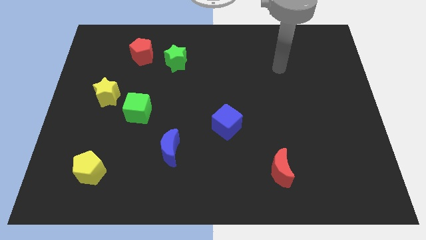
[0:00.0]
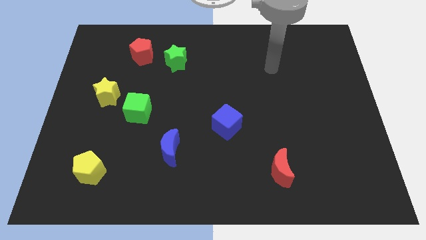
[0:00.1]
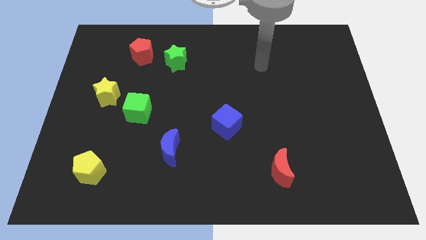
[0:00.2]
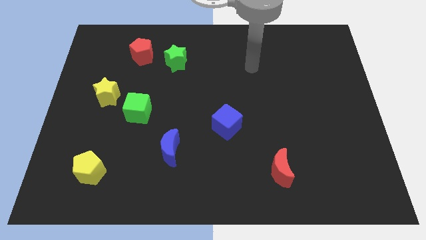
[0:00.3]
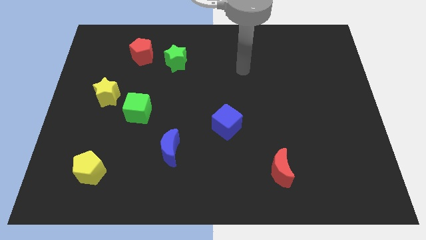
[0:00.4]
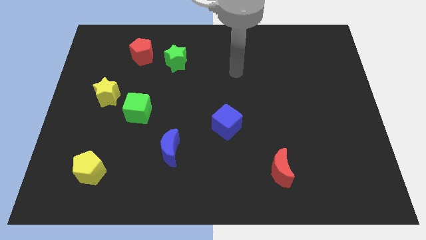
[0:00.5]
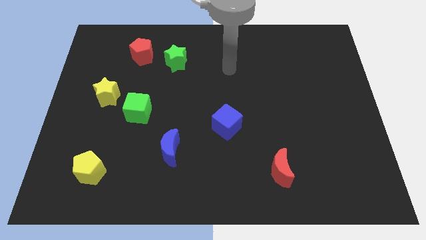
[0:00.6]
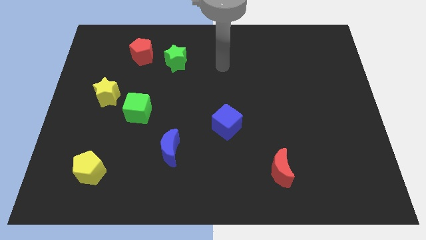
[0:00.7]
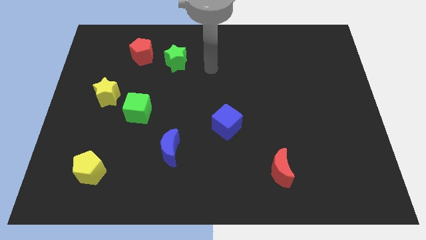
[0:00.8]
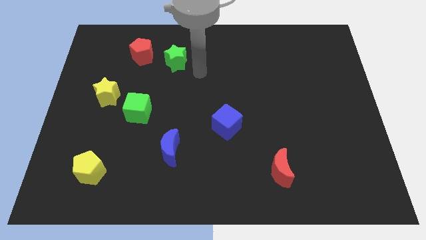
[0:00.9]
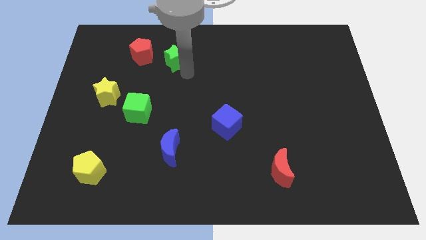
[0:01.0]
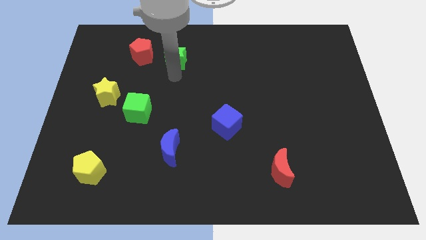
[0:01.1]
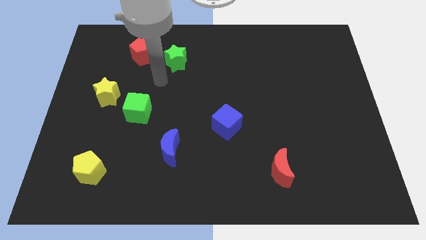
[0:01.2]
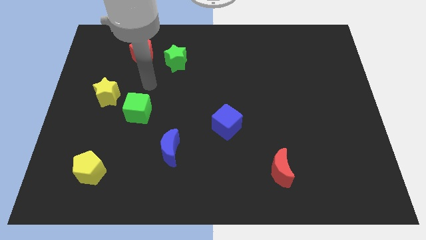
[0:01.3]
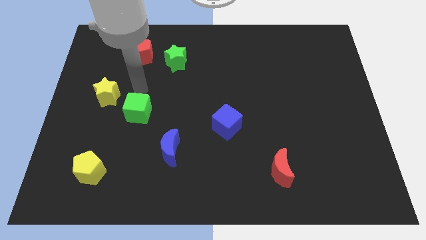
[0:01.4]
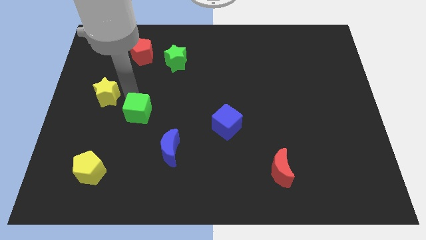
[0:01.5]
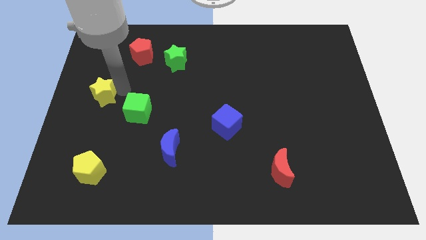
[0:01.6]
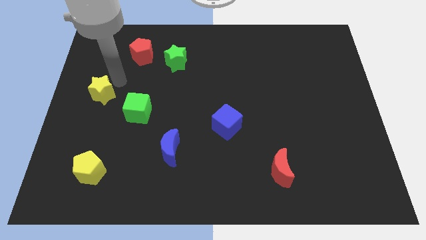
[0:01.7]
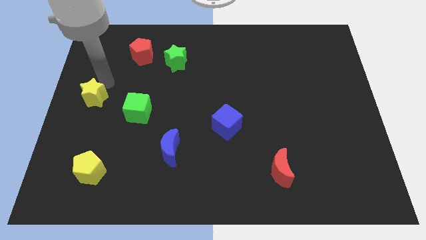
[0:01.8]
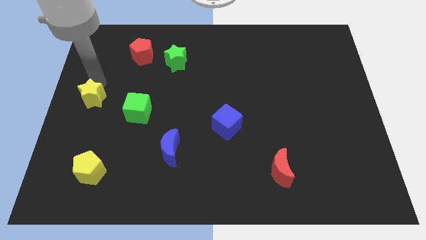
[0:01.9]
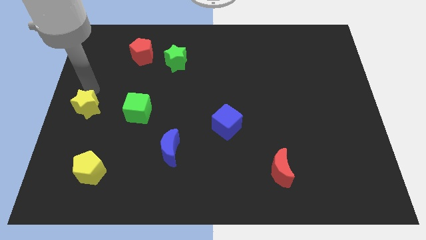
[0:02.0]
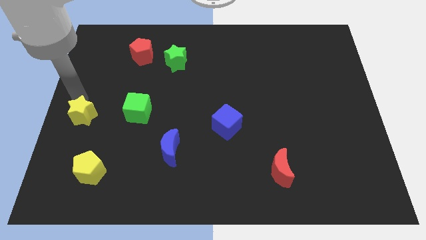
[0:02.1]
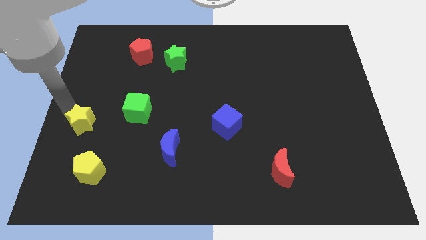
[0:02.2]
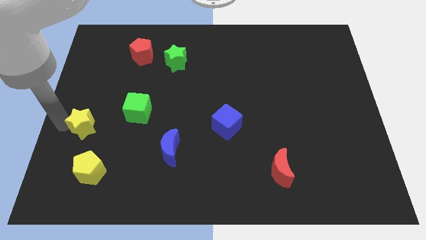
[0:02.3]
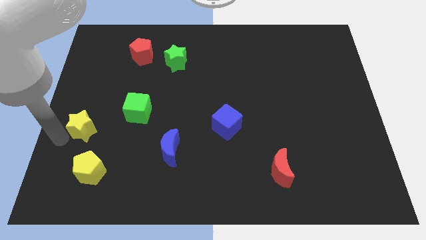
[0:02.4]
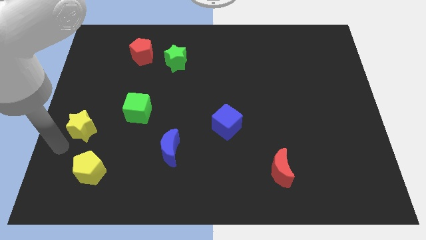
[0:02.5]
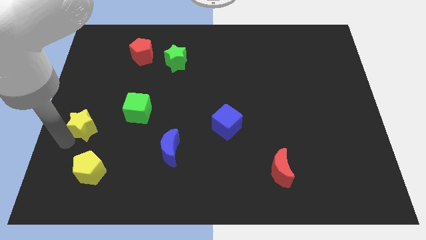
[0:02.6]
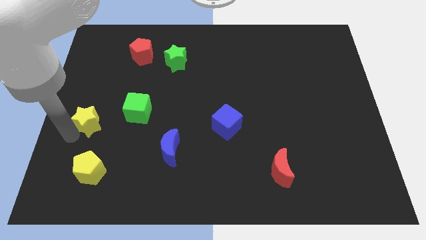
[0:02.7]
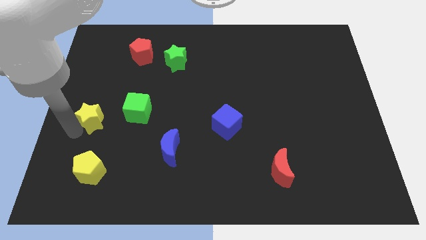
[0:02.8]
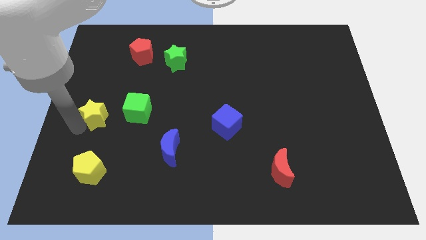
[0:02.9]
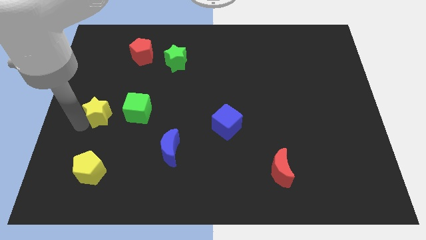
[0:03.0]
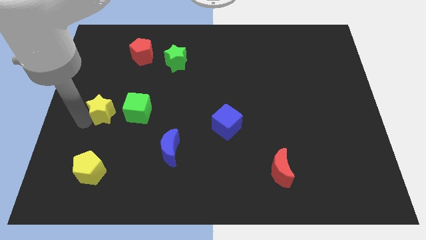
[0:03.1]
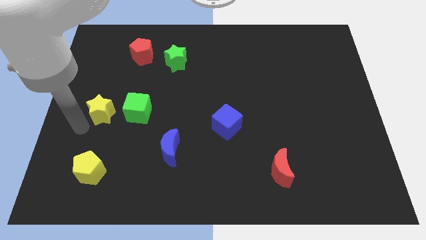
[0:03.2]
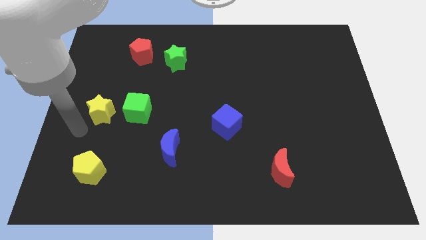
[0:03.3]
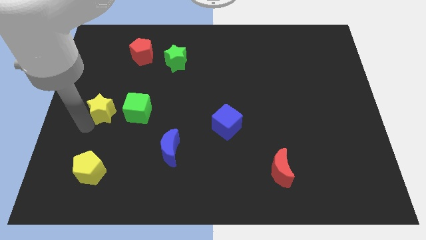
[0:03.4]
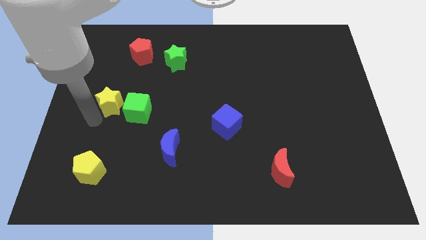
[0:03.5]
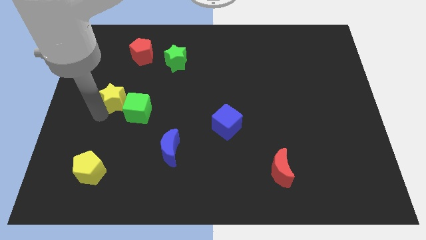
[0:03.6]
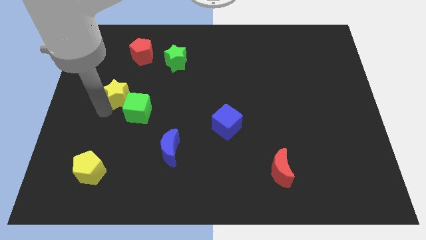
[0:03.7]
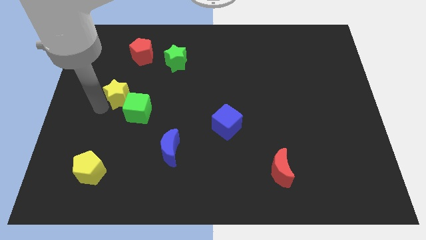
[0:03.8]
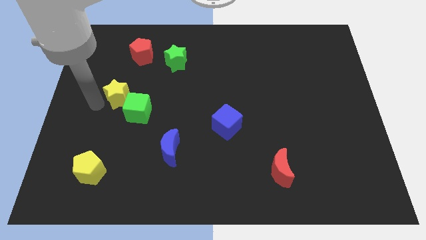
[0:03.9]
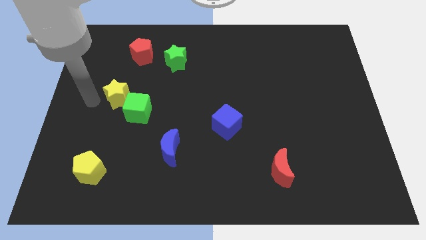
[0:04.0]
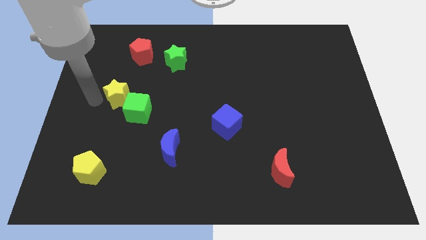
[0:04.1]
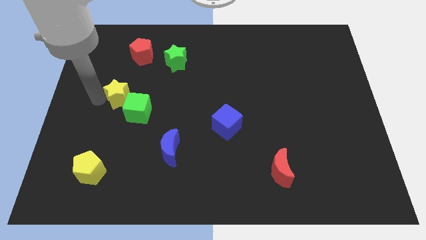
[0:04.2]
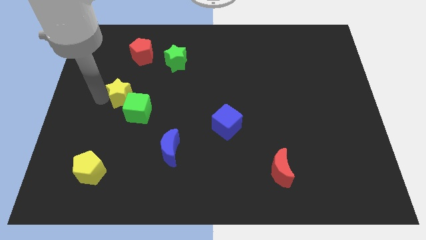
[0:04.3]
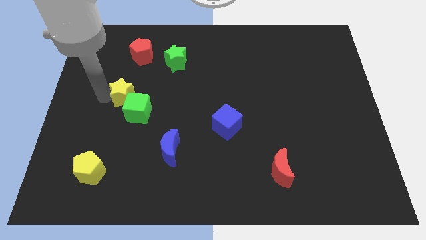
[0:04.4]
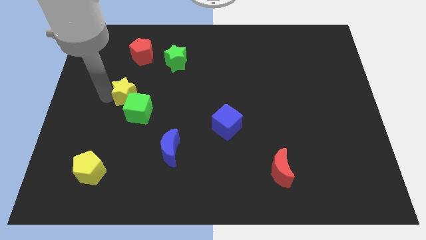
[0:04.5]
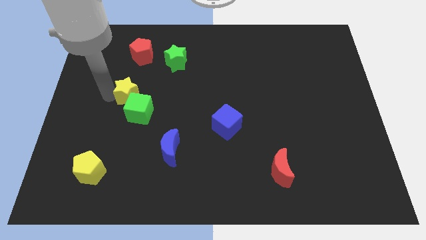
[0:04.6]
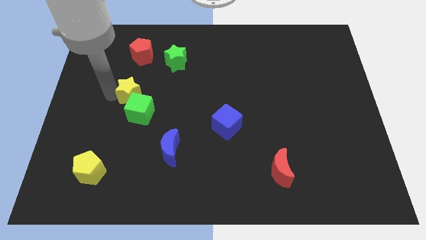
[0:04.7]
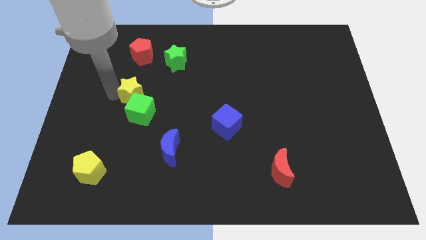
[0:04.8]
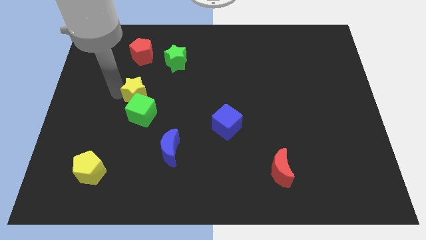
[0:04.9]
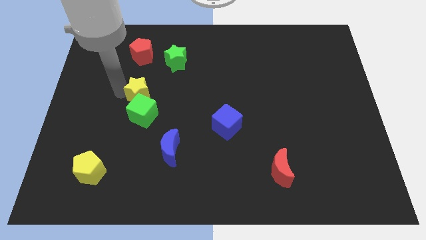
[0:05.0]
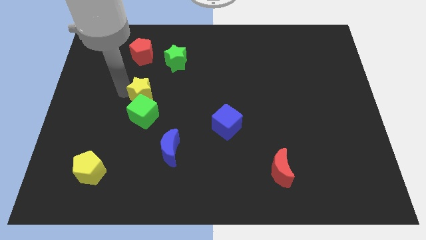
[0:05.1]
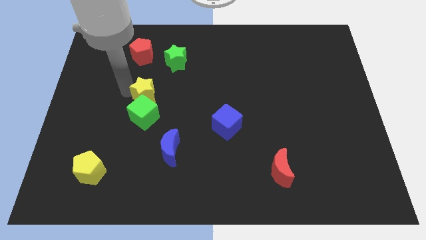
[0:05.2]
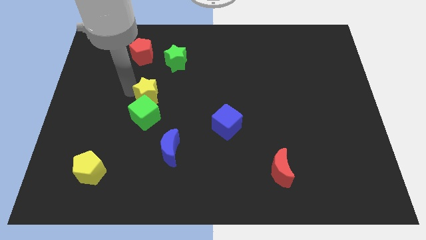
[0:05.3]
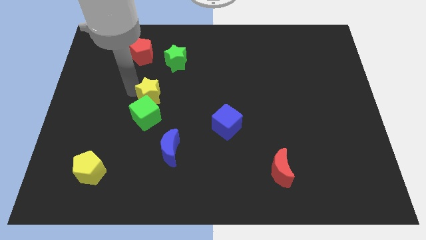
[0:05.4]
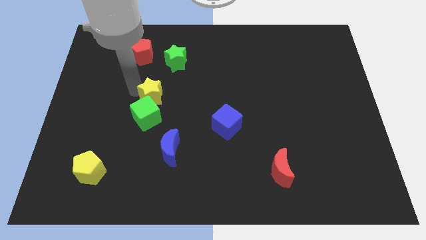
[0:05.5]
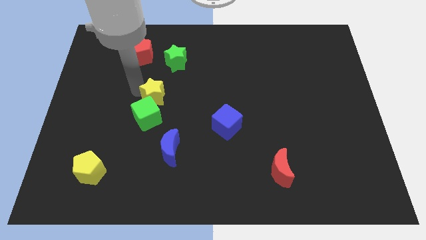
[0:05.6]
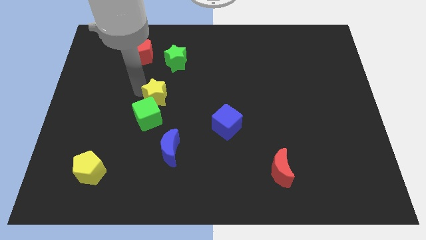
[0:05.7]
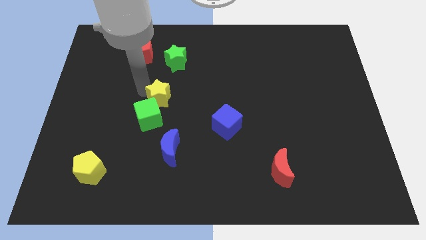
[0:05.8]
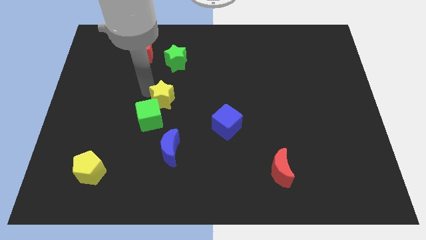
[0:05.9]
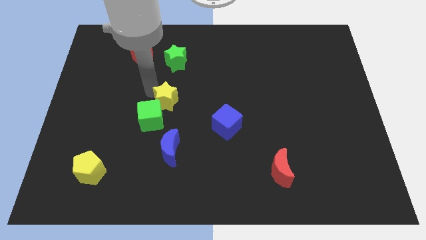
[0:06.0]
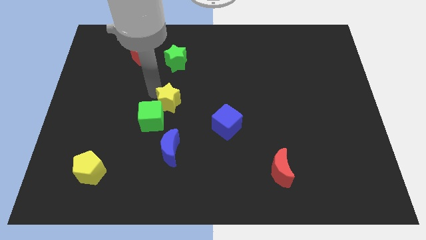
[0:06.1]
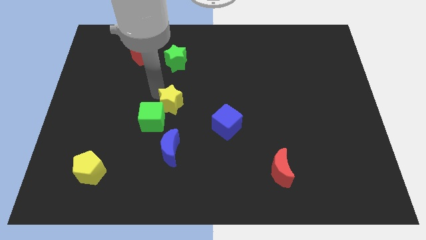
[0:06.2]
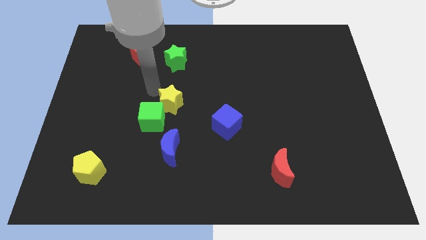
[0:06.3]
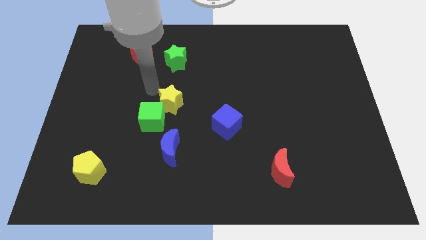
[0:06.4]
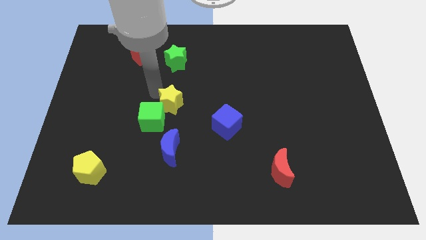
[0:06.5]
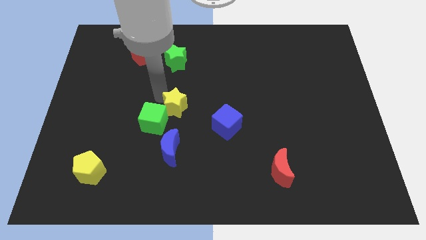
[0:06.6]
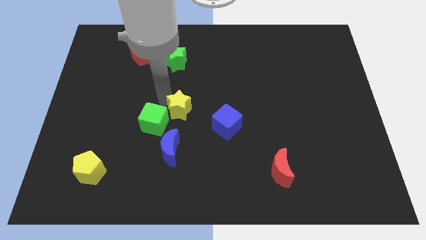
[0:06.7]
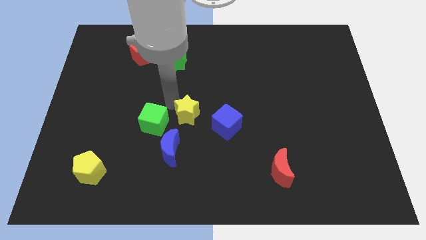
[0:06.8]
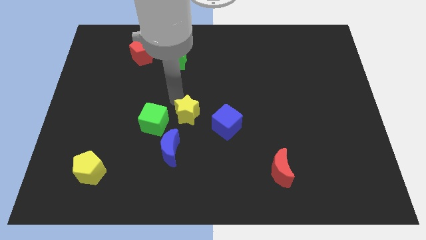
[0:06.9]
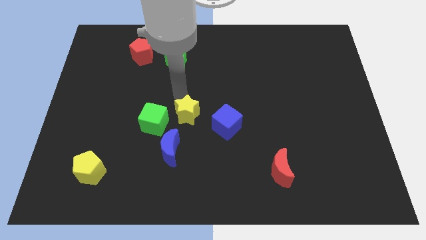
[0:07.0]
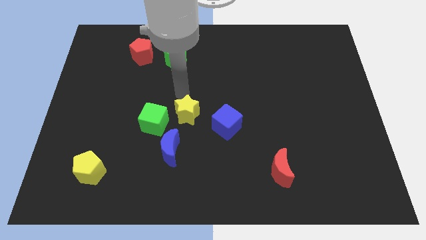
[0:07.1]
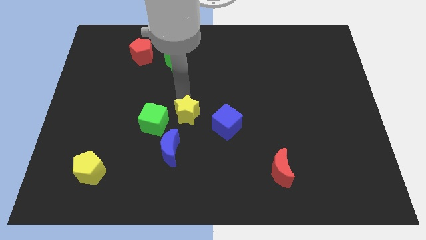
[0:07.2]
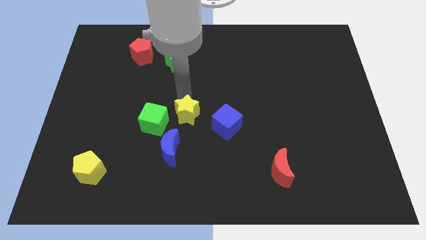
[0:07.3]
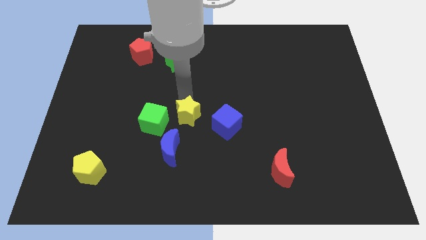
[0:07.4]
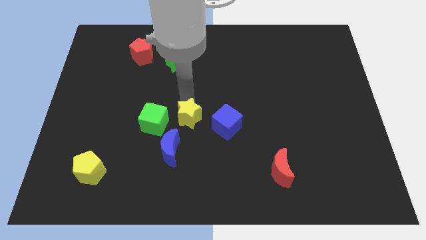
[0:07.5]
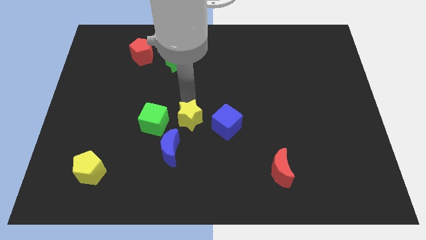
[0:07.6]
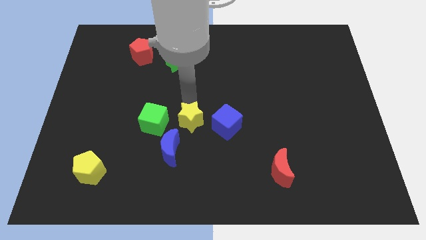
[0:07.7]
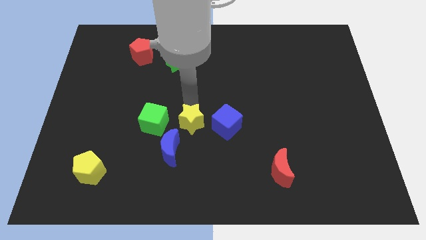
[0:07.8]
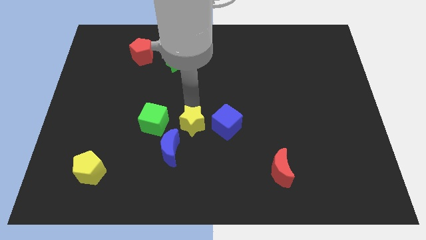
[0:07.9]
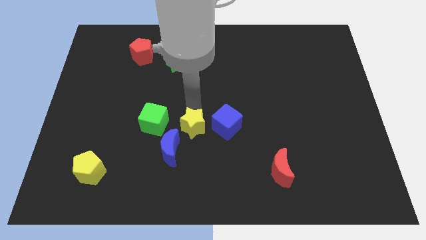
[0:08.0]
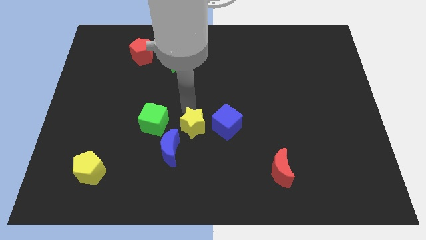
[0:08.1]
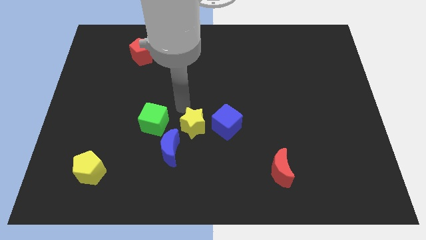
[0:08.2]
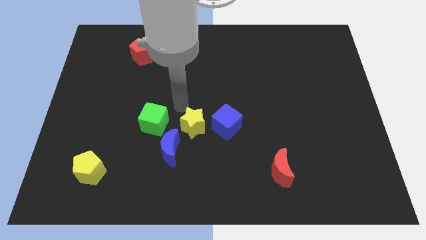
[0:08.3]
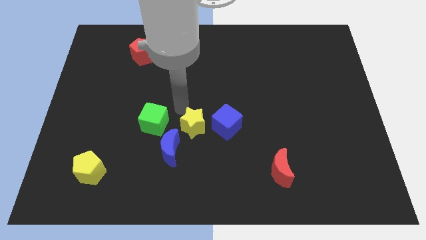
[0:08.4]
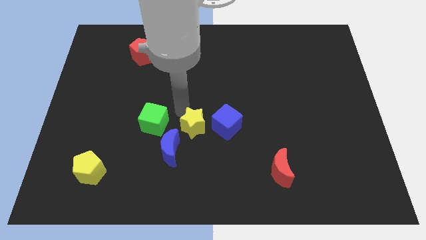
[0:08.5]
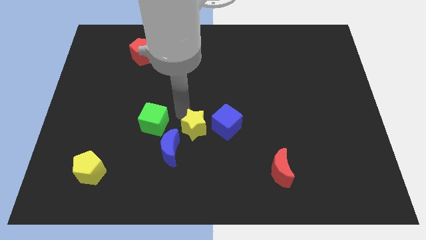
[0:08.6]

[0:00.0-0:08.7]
move the yellow star to the bottom left of the blue cube
